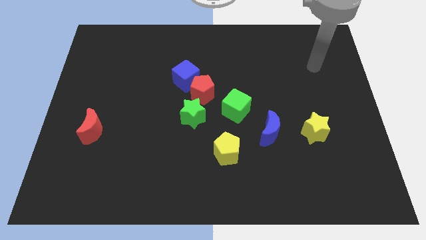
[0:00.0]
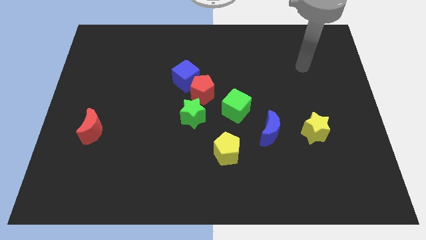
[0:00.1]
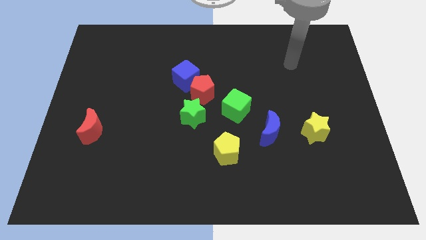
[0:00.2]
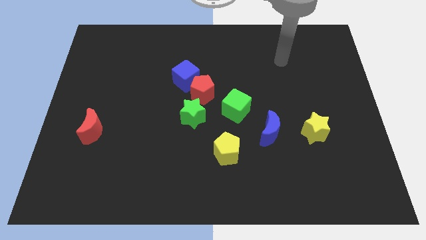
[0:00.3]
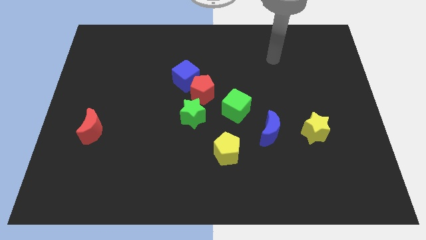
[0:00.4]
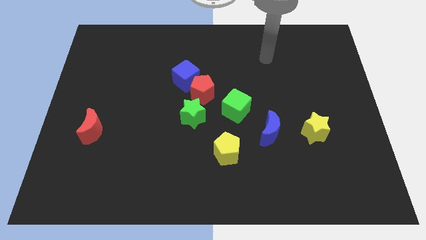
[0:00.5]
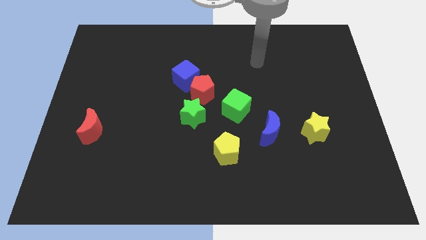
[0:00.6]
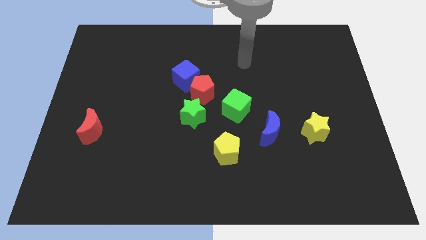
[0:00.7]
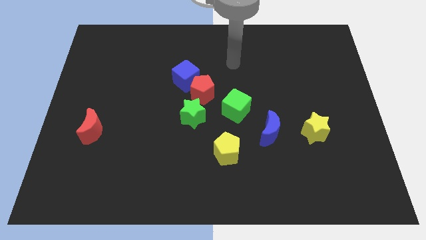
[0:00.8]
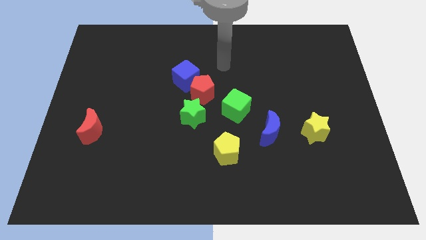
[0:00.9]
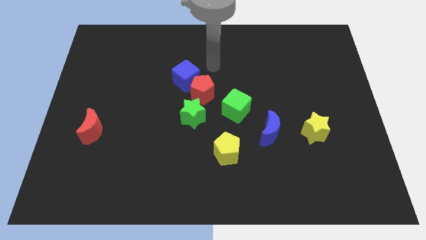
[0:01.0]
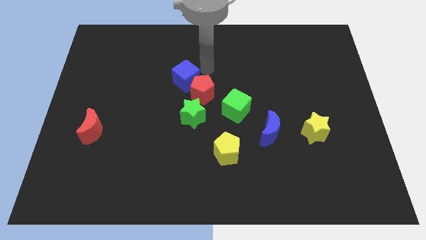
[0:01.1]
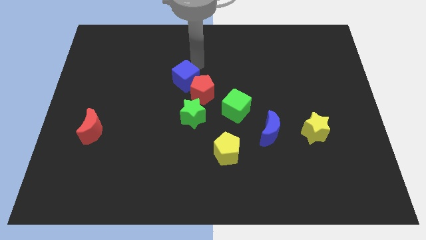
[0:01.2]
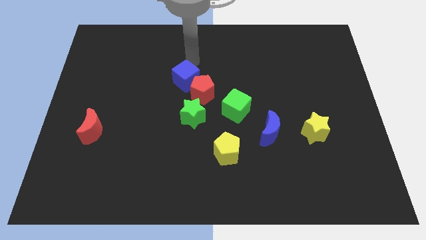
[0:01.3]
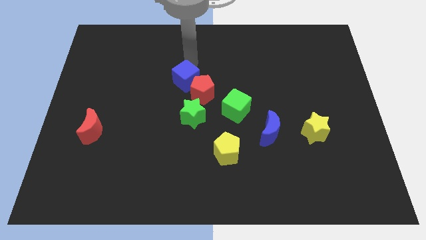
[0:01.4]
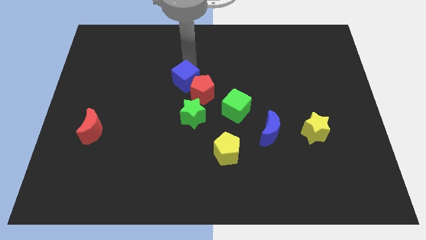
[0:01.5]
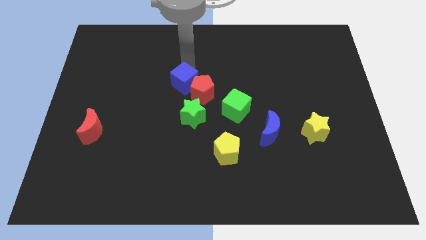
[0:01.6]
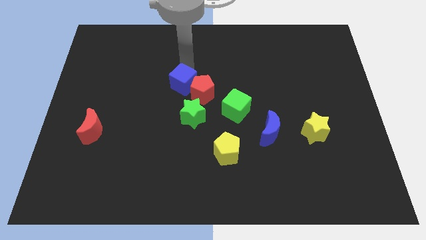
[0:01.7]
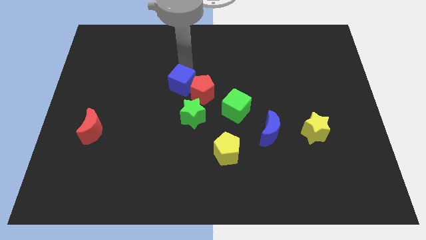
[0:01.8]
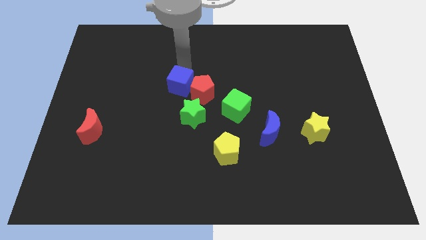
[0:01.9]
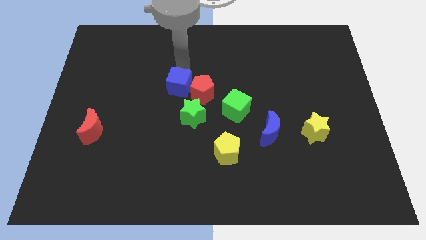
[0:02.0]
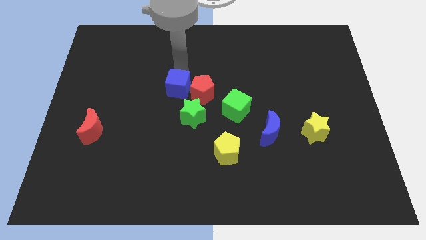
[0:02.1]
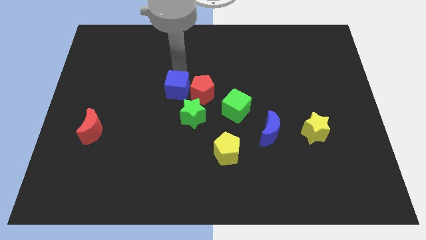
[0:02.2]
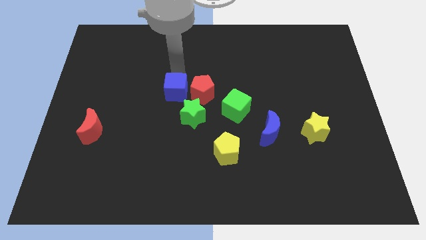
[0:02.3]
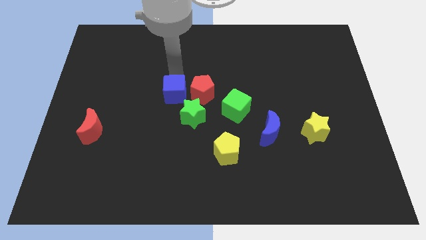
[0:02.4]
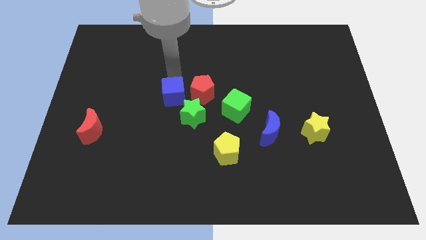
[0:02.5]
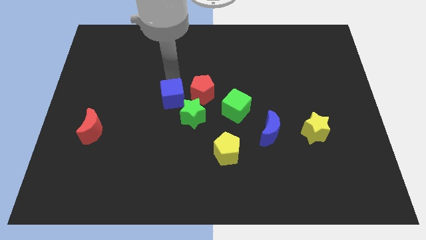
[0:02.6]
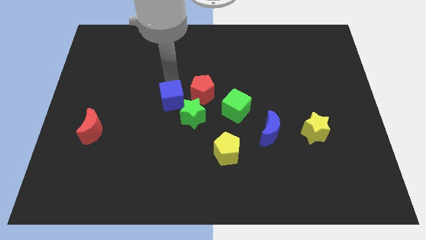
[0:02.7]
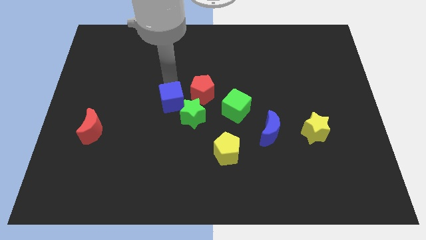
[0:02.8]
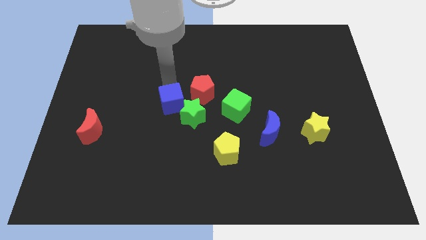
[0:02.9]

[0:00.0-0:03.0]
move the blue cube downwards somewhat

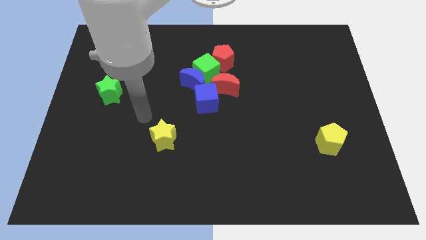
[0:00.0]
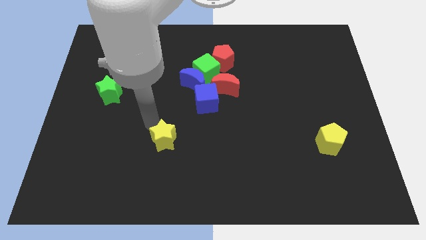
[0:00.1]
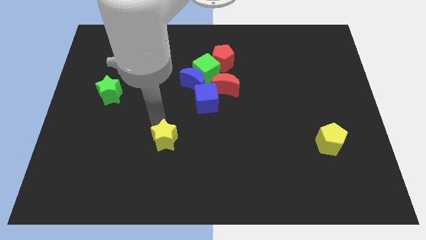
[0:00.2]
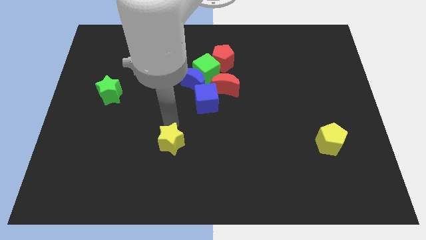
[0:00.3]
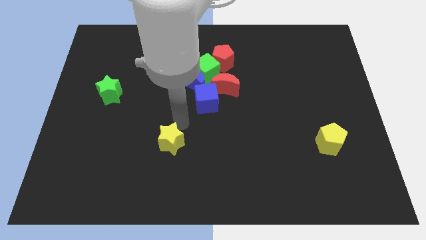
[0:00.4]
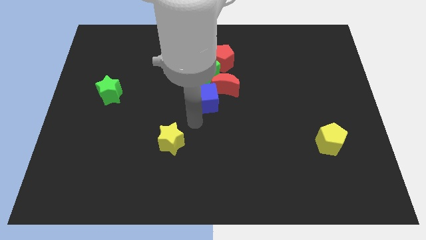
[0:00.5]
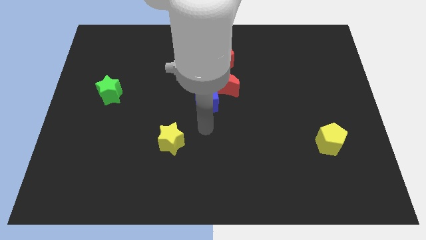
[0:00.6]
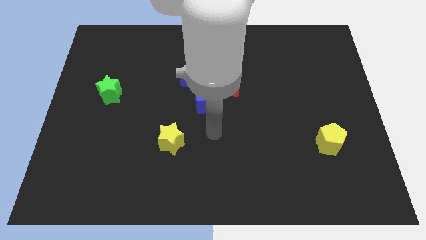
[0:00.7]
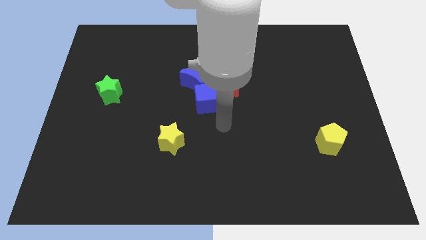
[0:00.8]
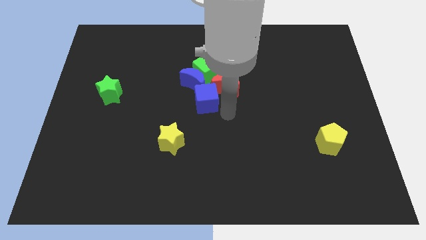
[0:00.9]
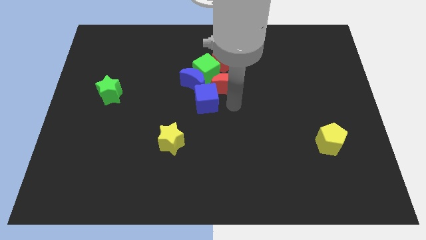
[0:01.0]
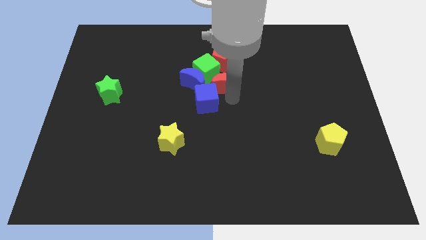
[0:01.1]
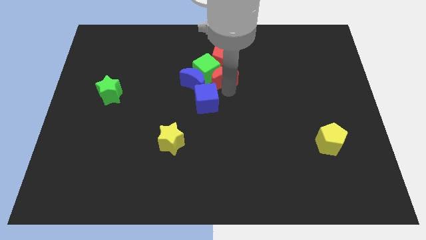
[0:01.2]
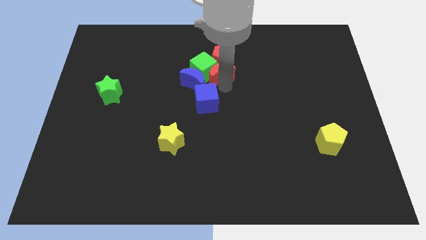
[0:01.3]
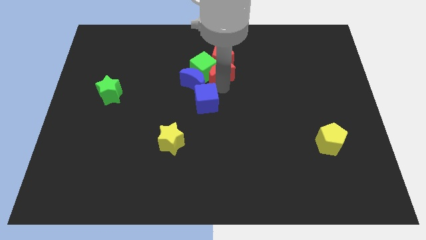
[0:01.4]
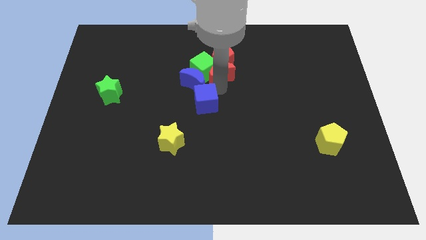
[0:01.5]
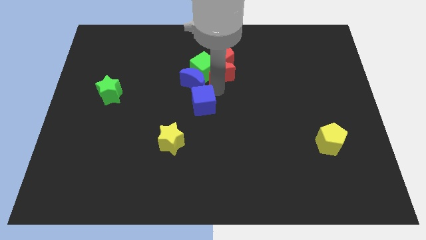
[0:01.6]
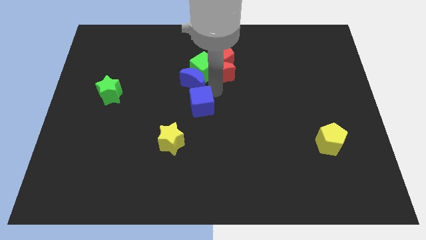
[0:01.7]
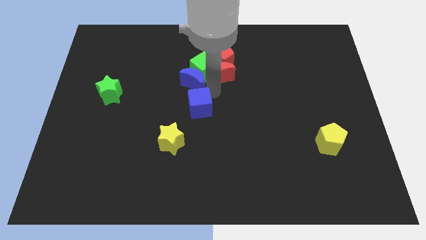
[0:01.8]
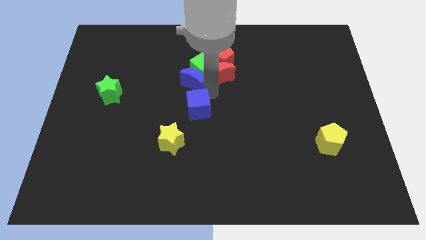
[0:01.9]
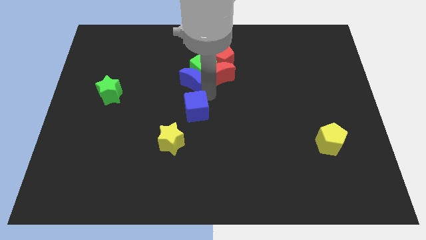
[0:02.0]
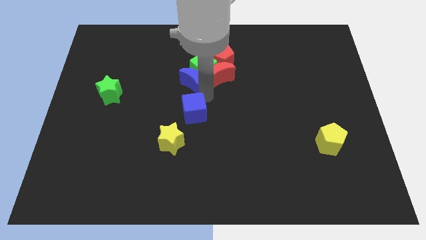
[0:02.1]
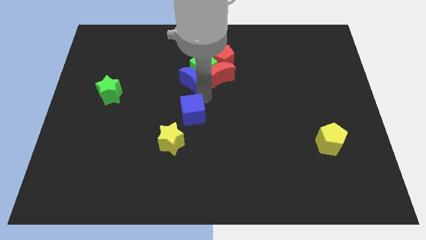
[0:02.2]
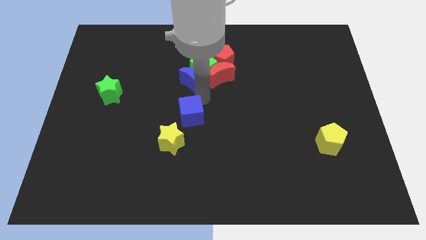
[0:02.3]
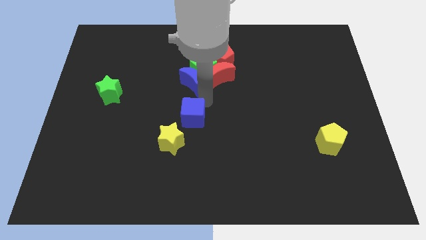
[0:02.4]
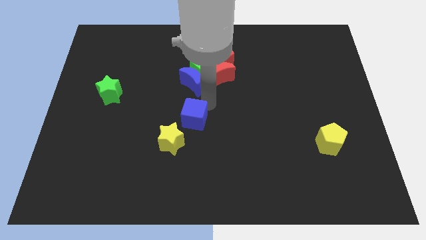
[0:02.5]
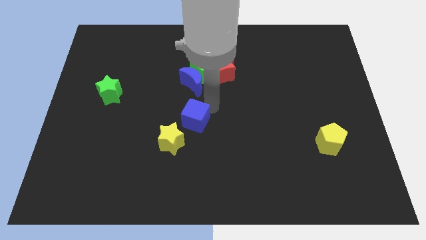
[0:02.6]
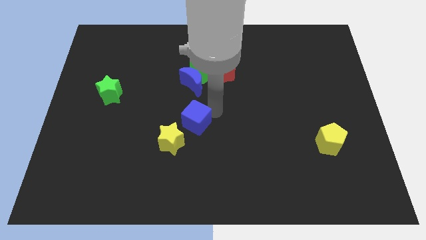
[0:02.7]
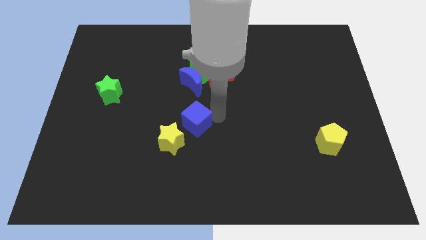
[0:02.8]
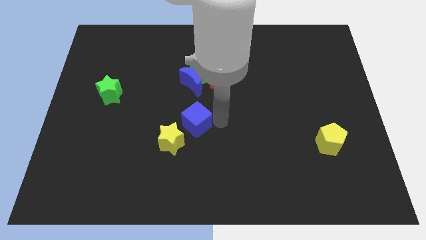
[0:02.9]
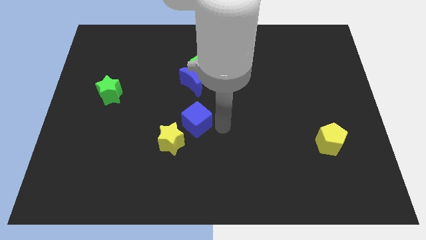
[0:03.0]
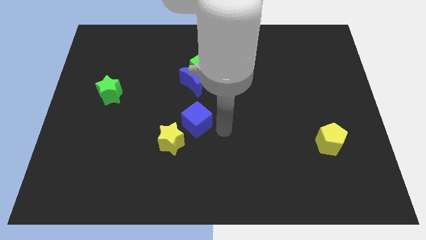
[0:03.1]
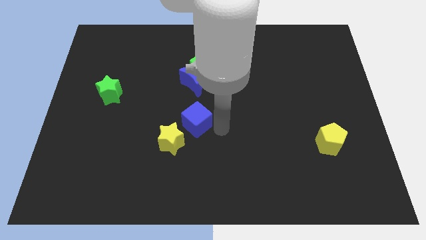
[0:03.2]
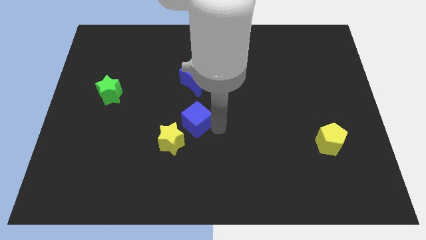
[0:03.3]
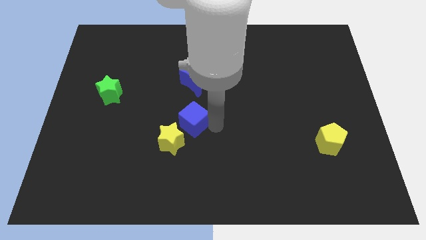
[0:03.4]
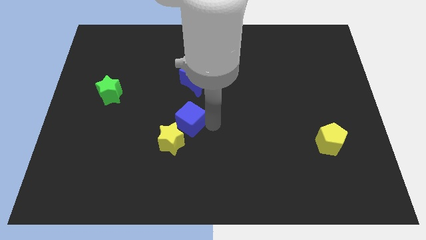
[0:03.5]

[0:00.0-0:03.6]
slide the blue cube a little bit down and then to the left

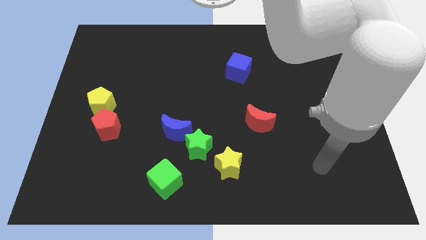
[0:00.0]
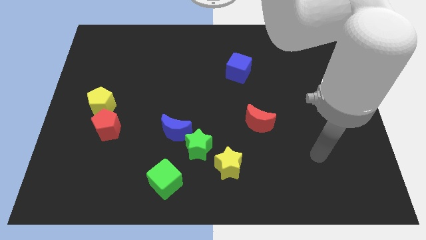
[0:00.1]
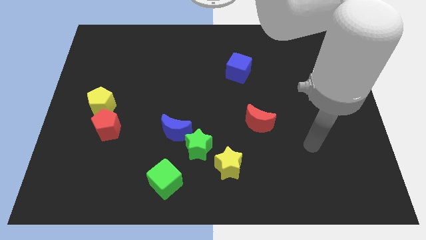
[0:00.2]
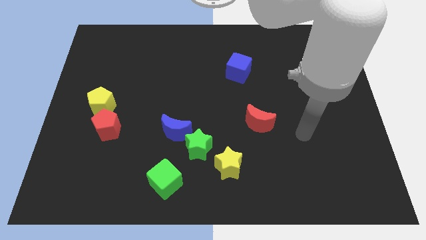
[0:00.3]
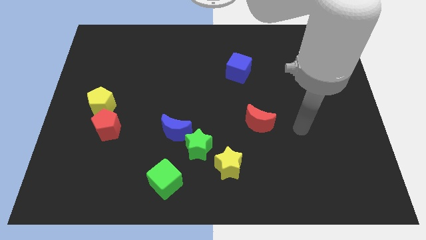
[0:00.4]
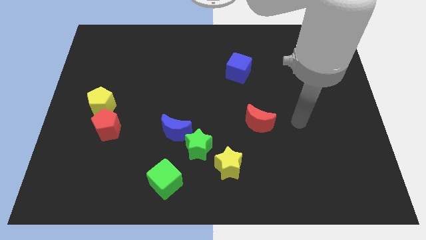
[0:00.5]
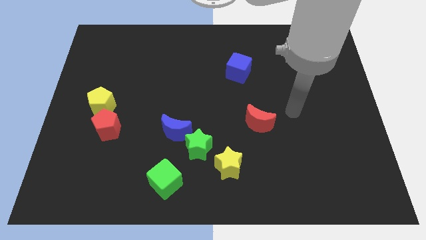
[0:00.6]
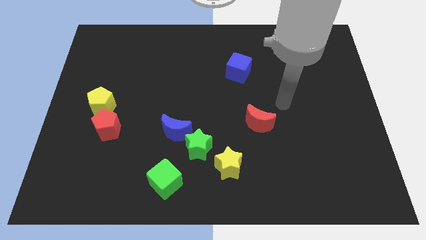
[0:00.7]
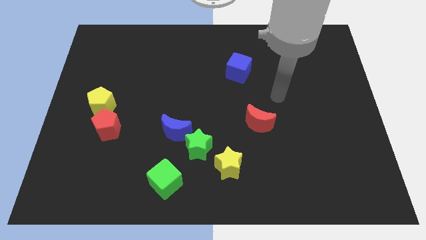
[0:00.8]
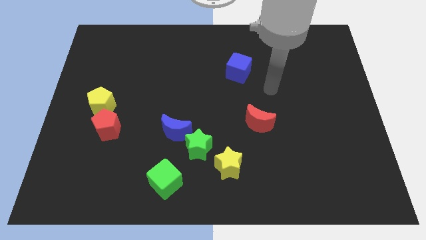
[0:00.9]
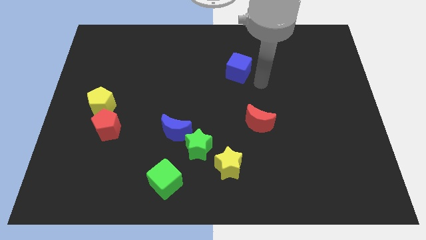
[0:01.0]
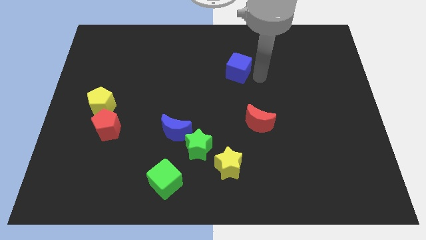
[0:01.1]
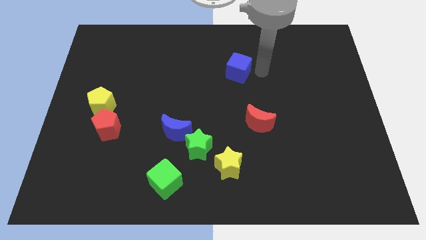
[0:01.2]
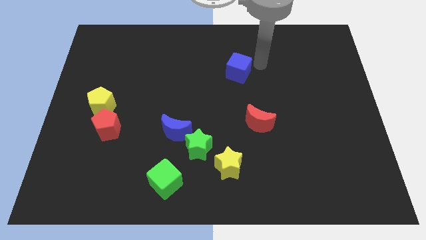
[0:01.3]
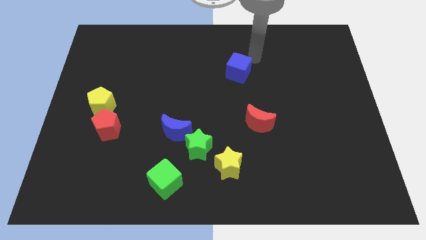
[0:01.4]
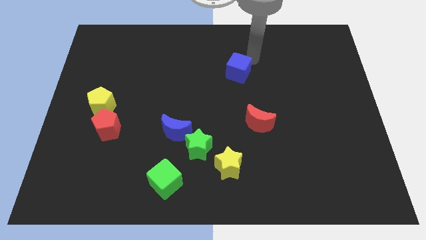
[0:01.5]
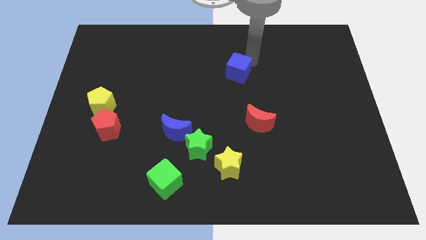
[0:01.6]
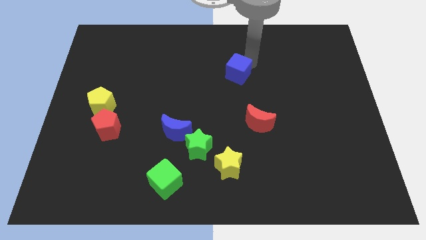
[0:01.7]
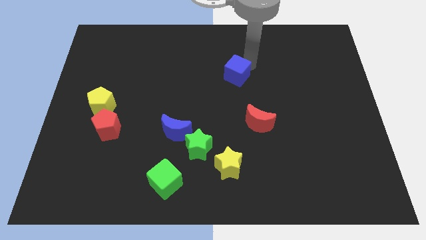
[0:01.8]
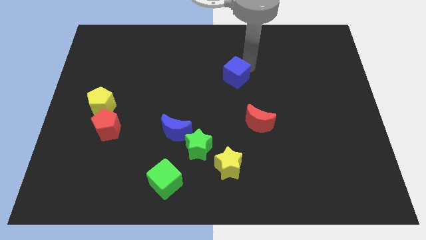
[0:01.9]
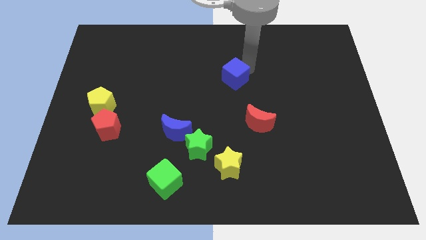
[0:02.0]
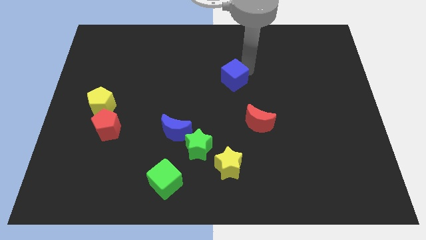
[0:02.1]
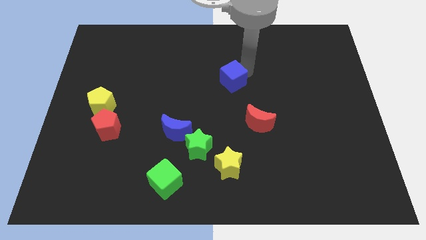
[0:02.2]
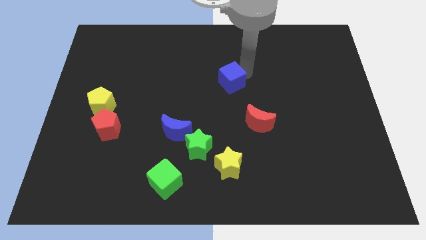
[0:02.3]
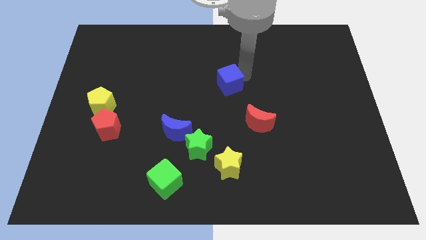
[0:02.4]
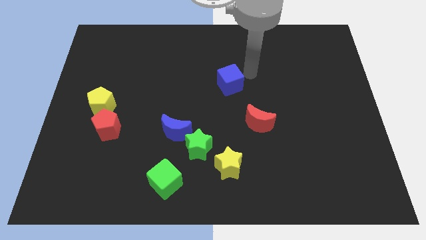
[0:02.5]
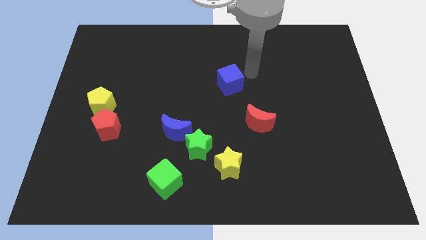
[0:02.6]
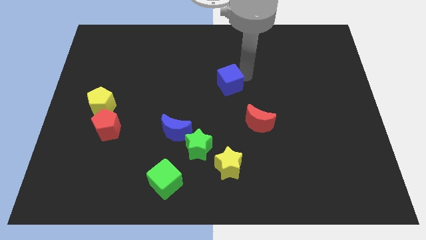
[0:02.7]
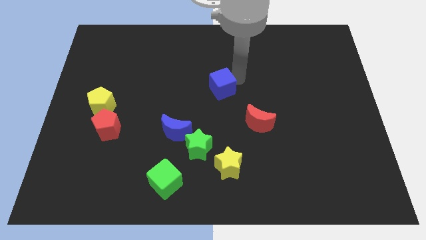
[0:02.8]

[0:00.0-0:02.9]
slightly move the blue cube down and then left
